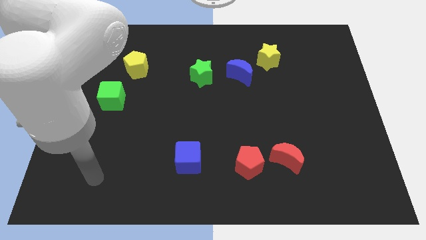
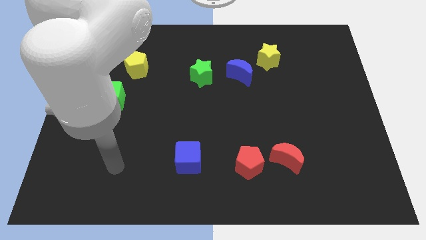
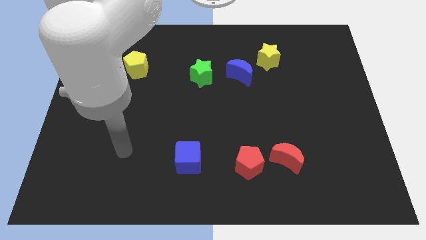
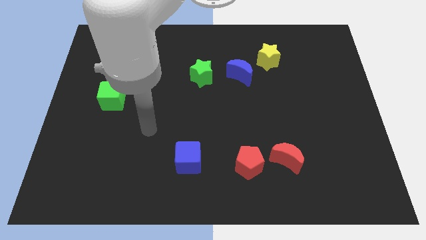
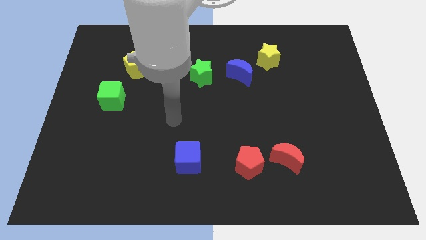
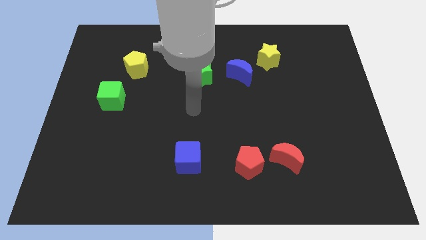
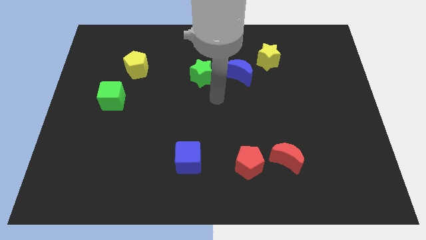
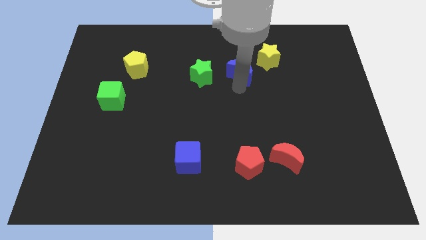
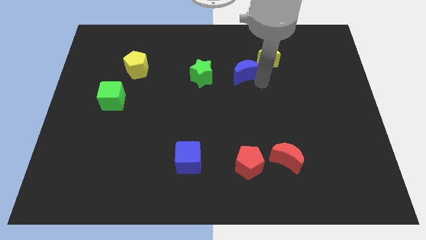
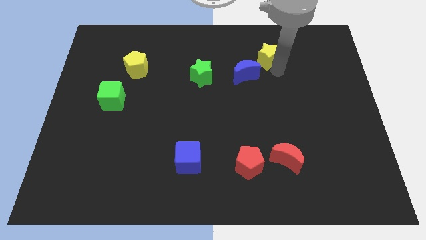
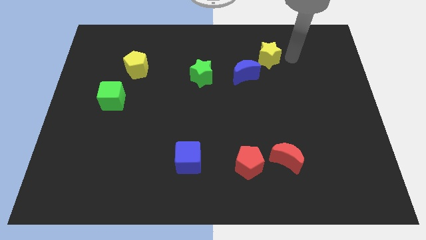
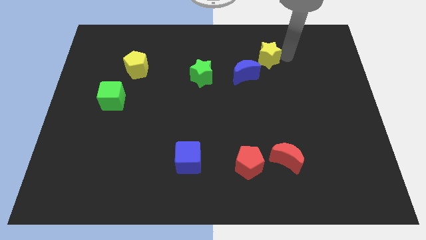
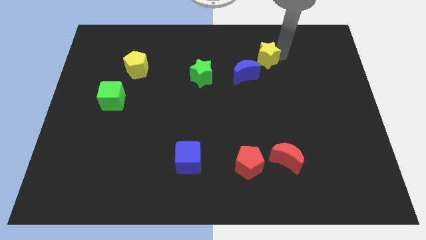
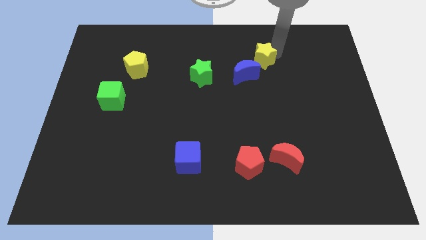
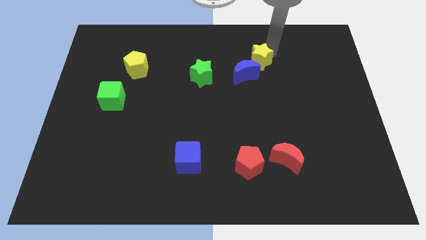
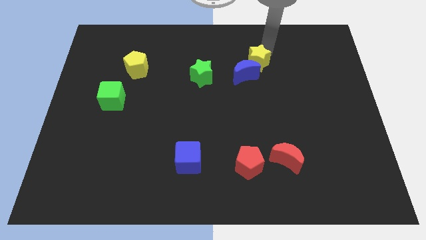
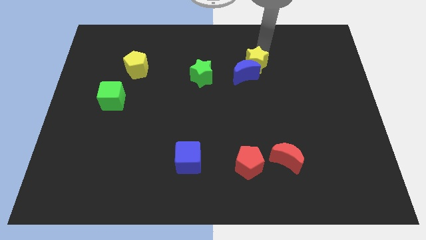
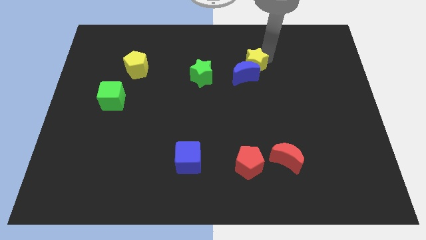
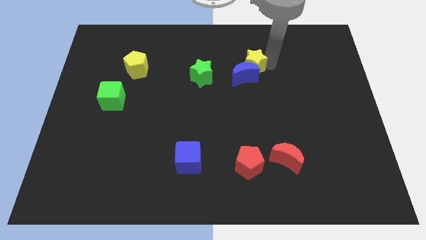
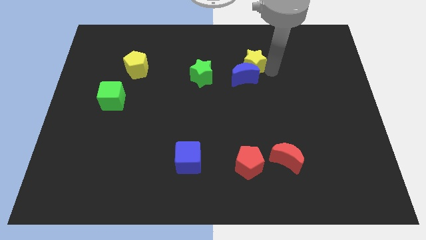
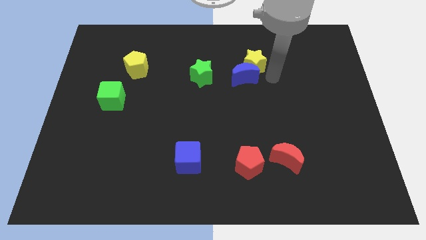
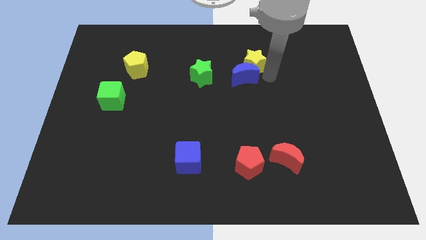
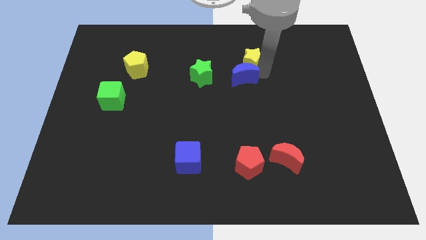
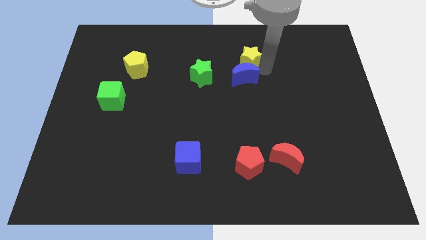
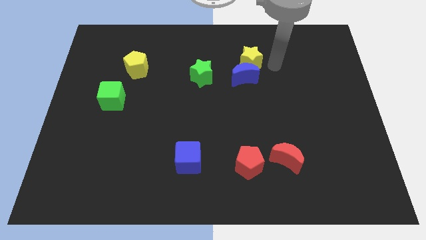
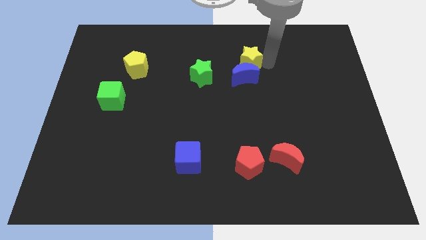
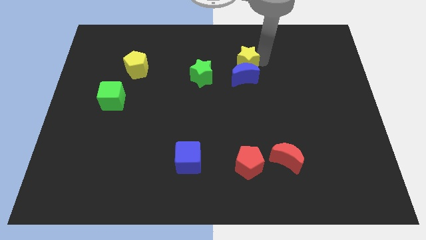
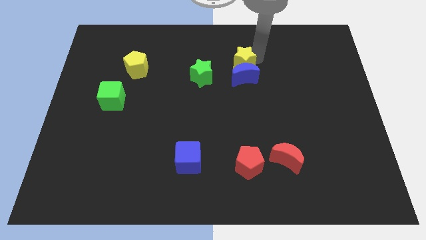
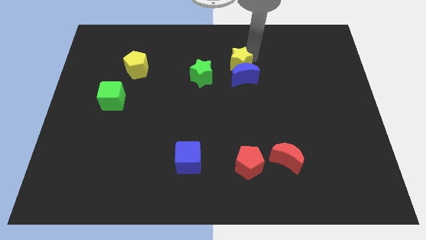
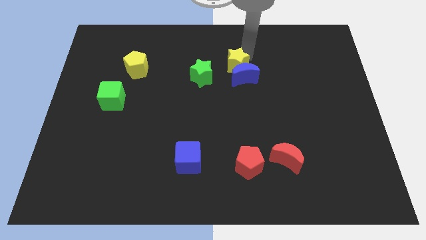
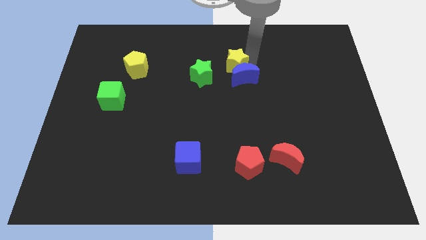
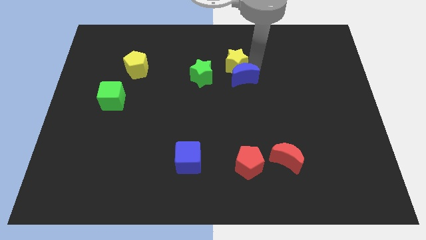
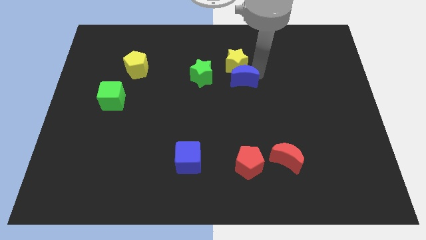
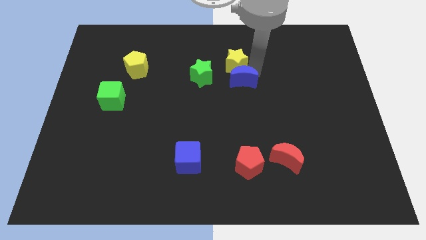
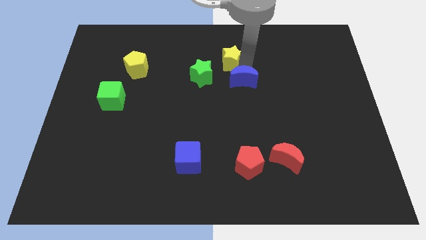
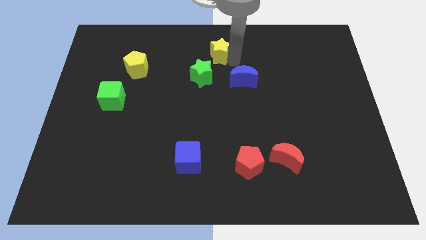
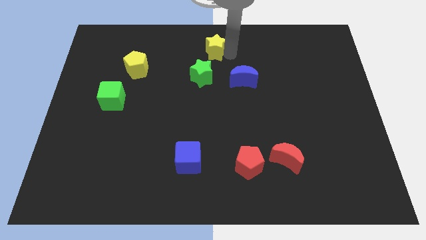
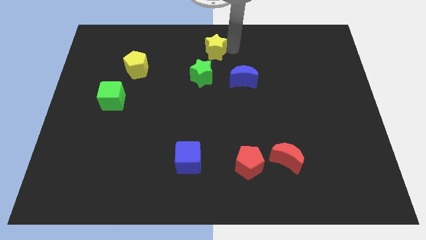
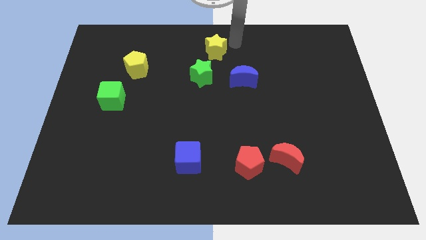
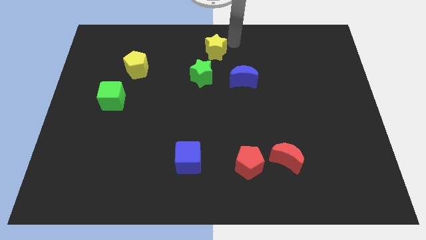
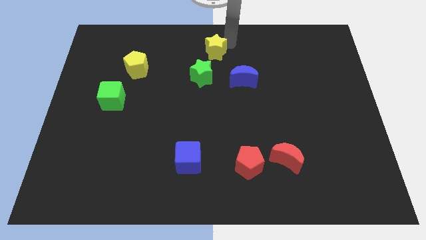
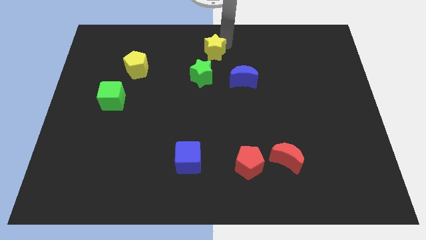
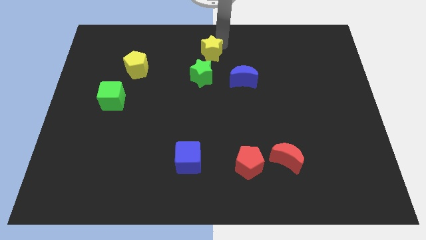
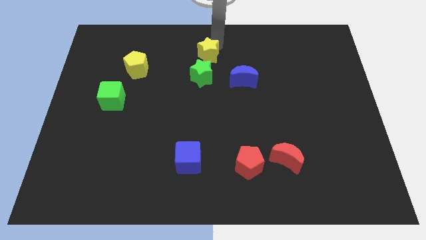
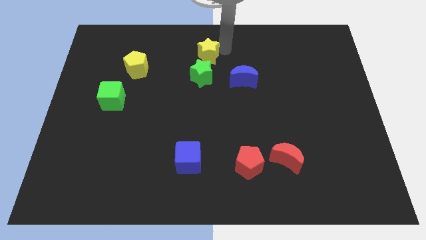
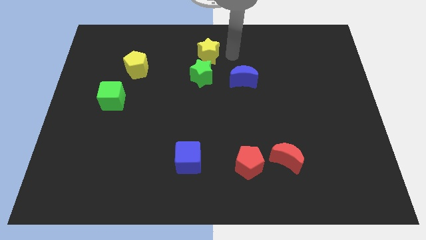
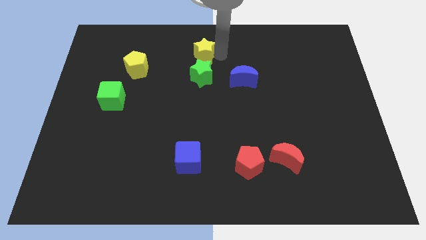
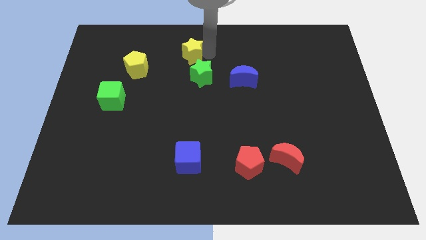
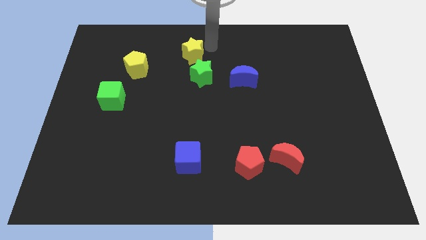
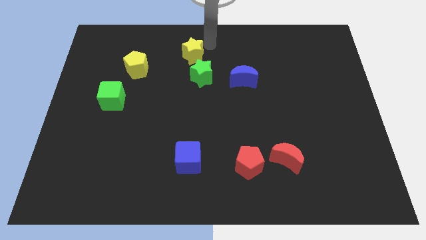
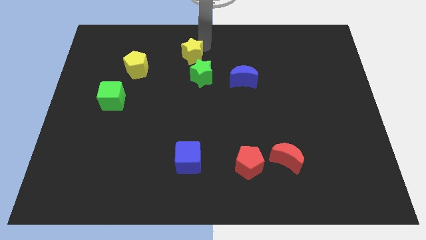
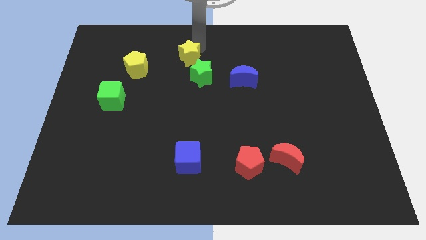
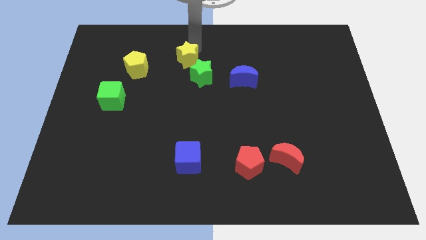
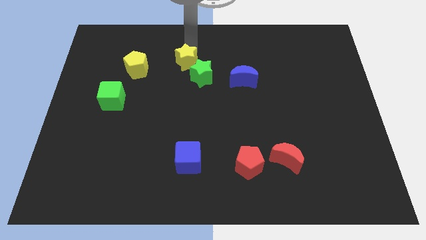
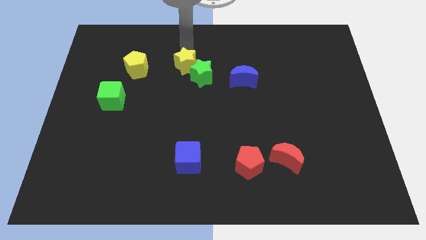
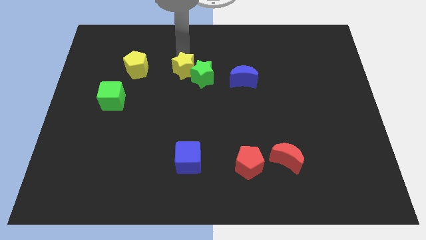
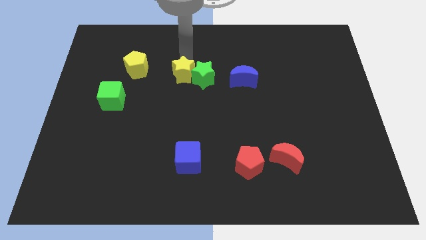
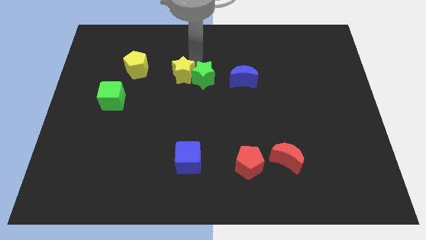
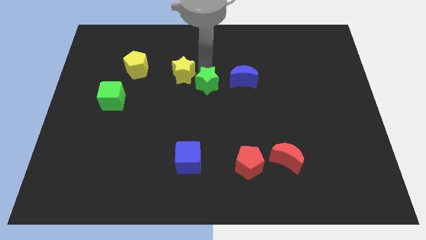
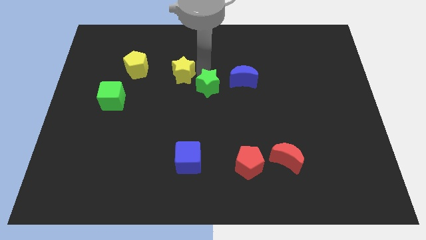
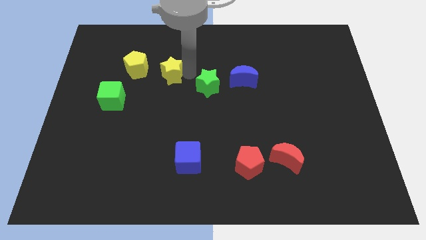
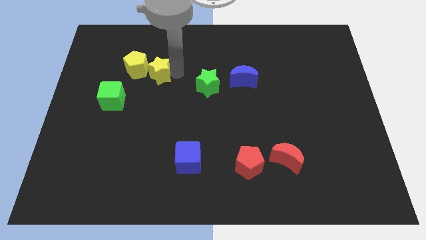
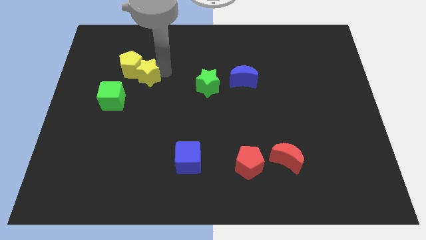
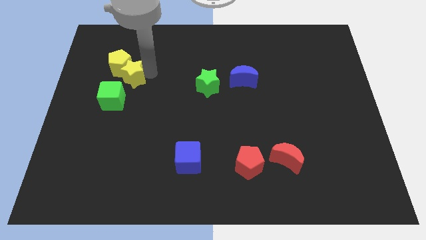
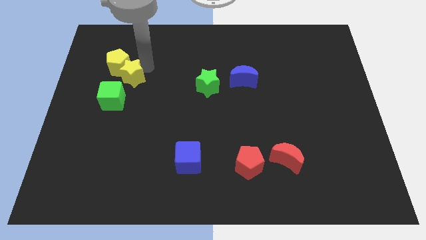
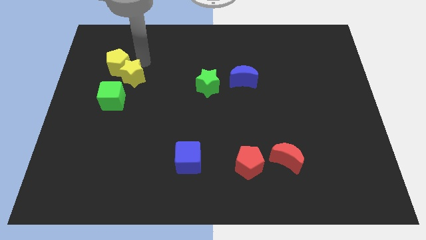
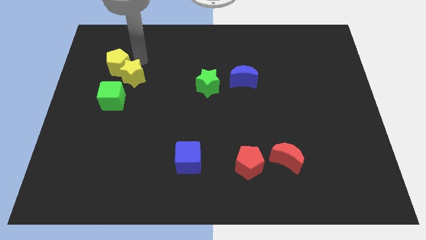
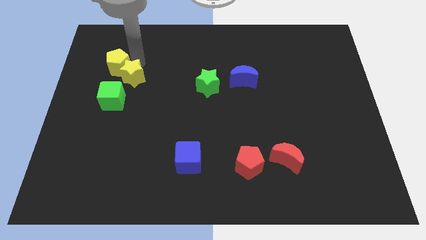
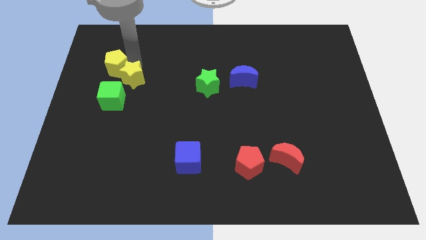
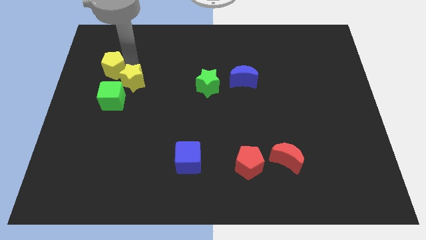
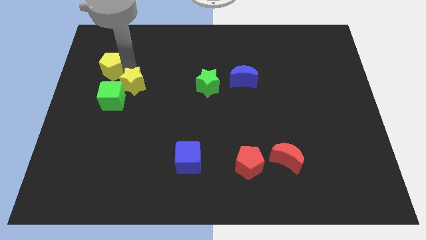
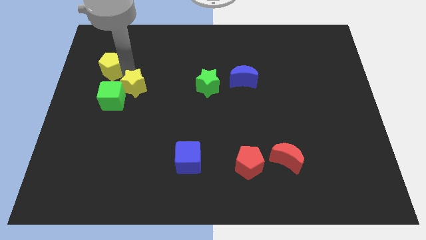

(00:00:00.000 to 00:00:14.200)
push the yellow star close to the green cube
